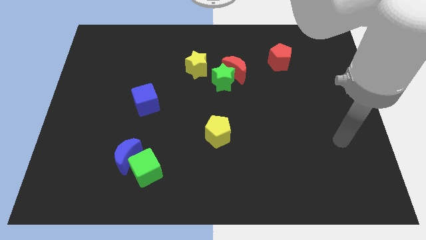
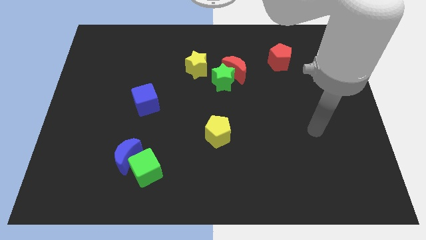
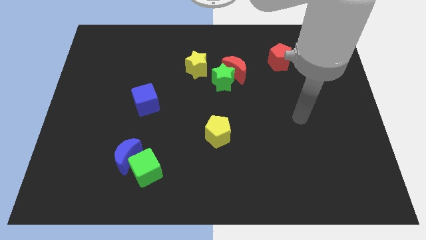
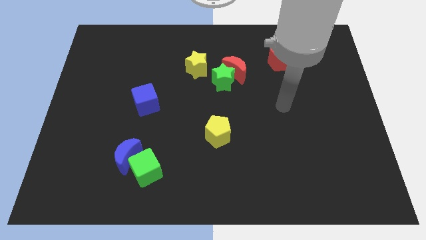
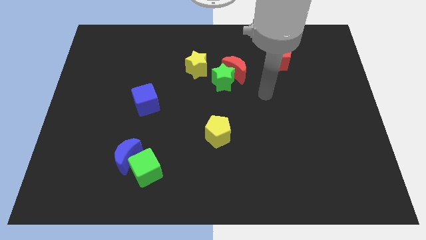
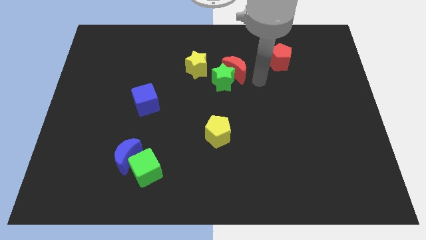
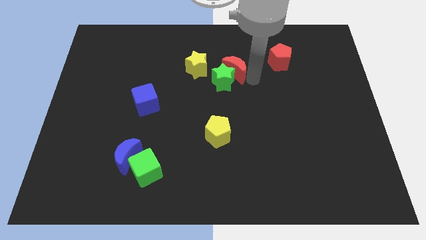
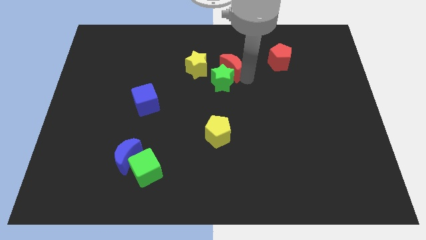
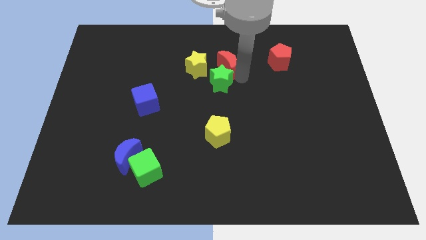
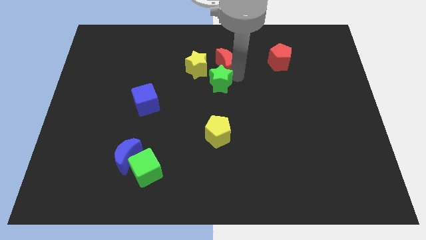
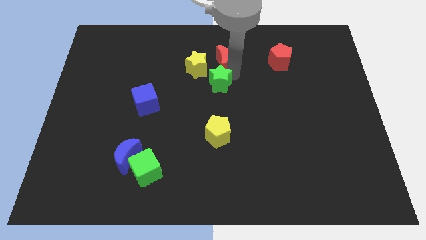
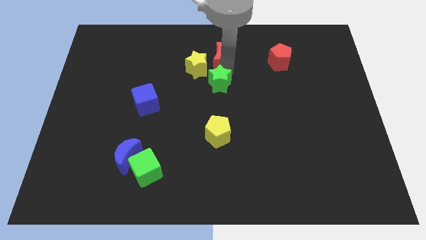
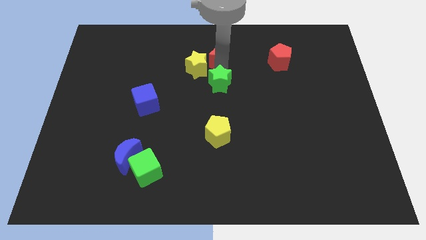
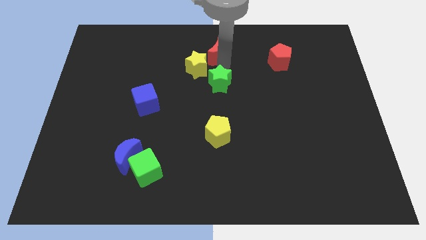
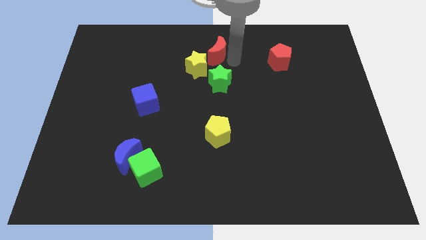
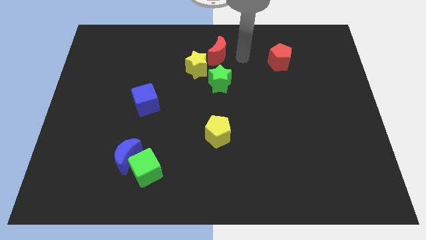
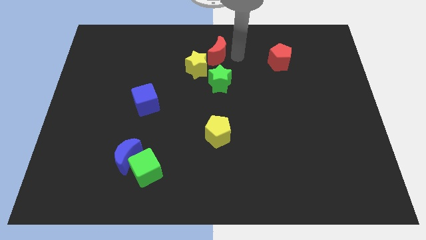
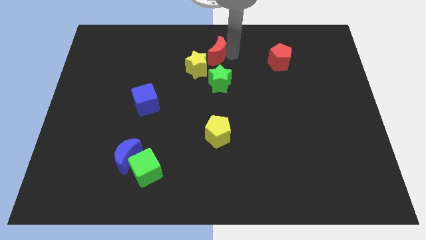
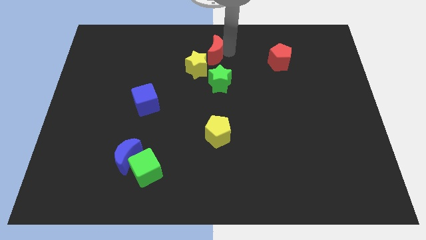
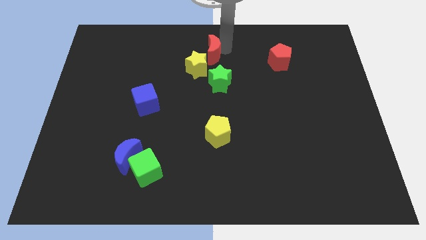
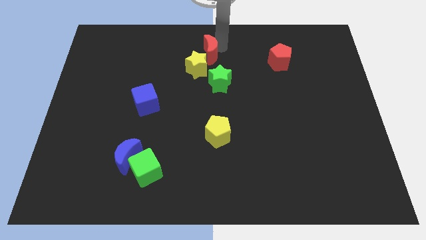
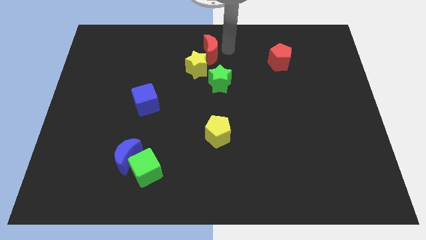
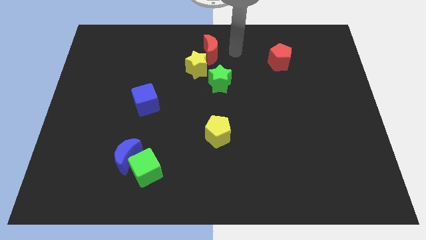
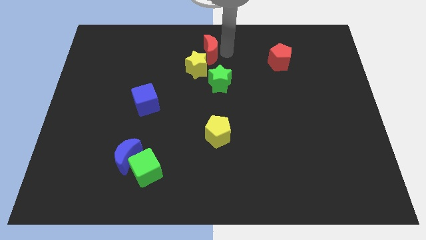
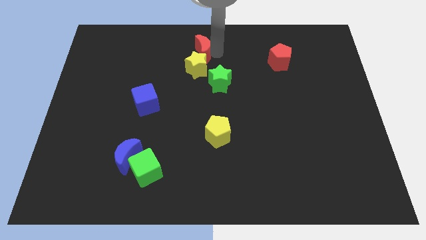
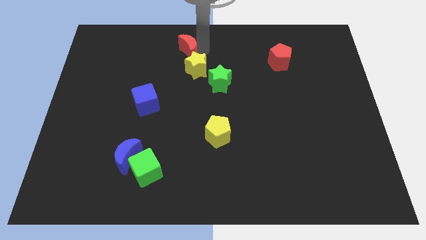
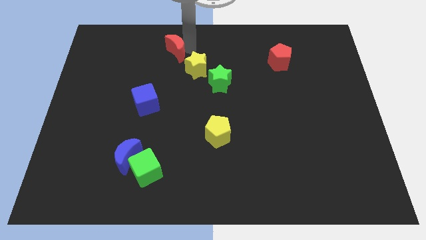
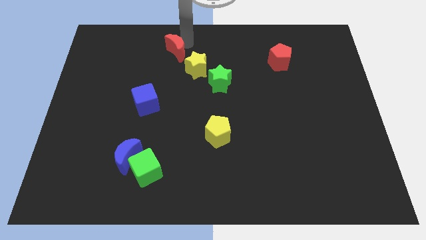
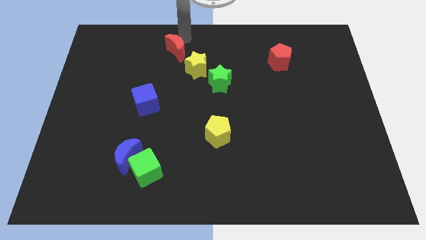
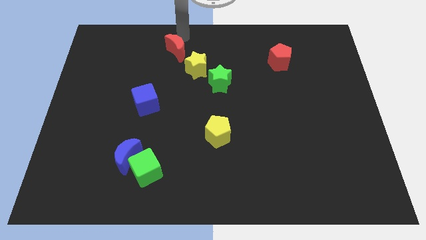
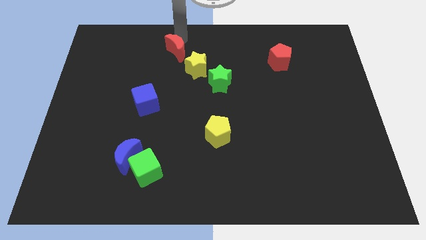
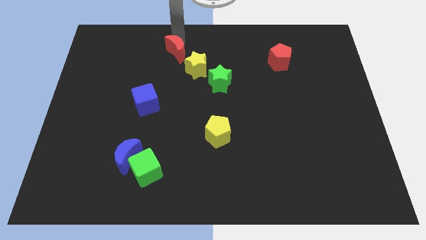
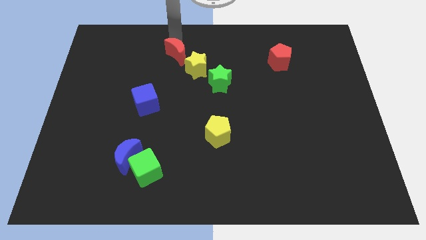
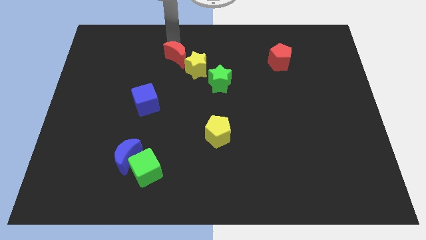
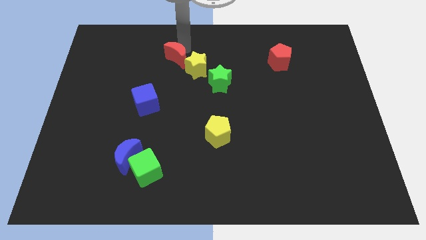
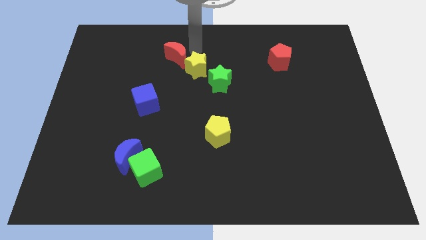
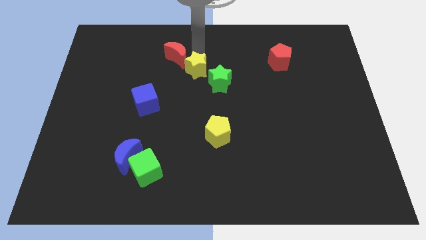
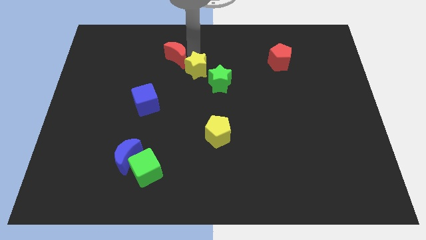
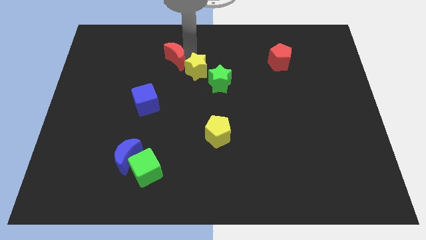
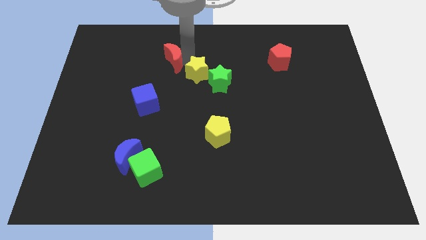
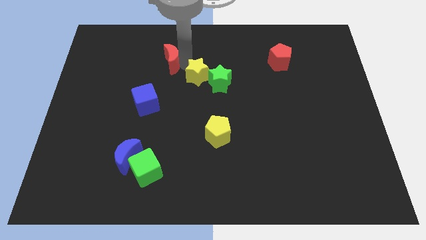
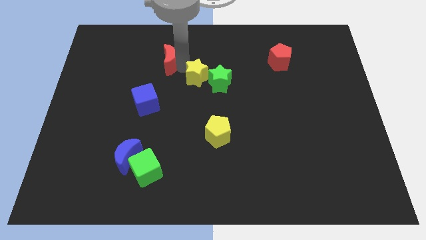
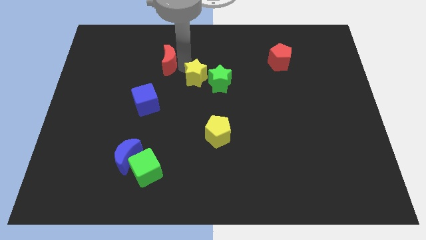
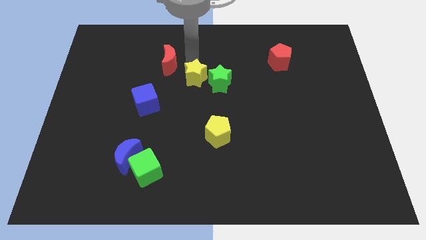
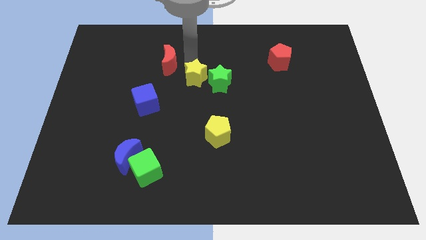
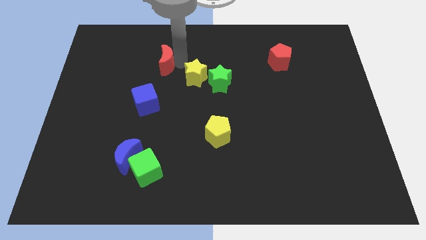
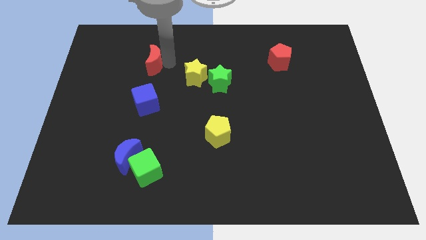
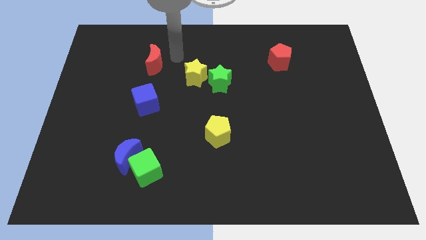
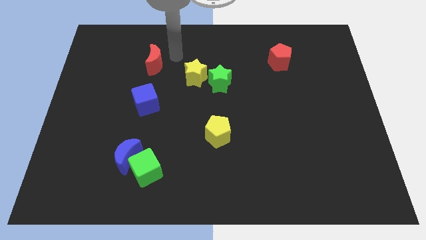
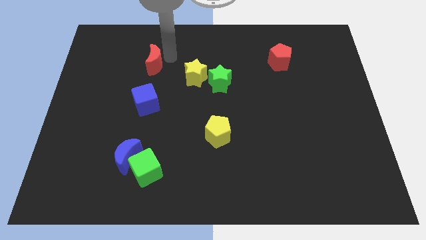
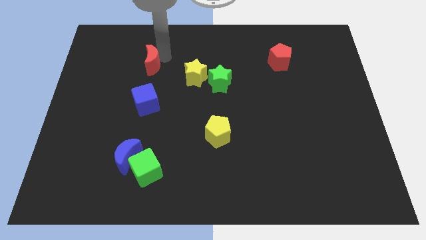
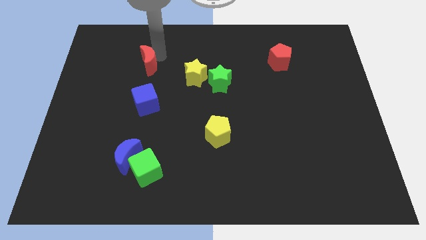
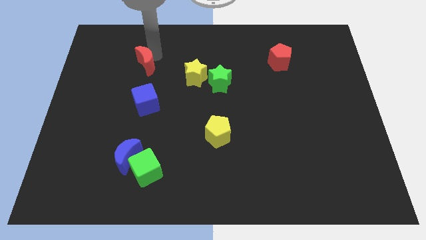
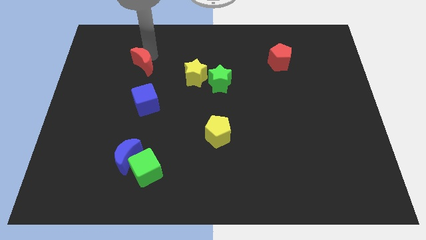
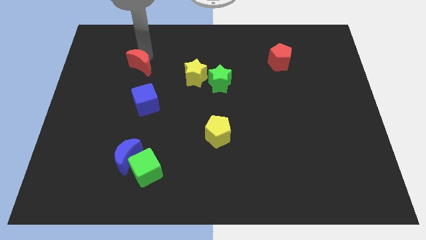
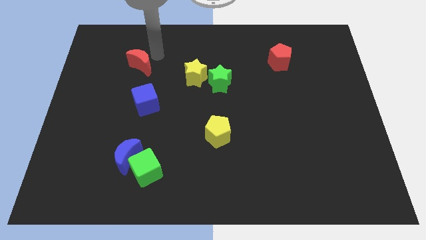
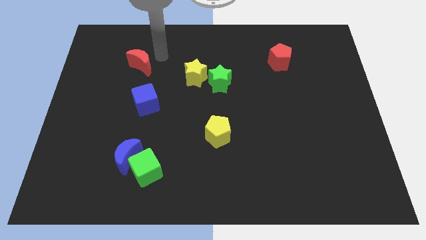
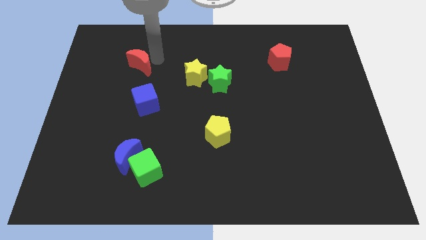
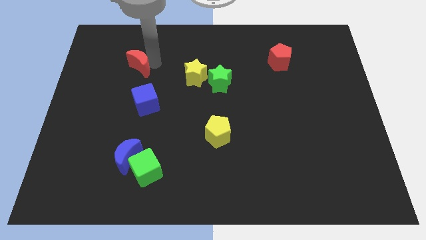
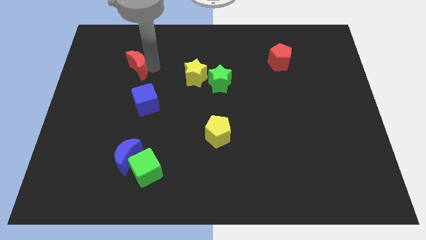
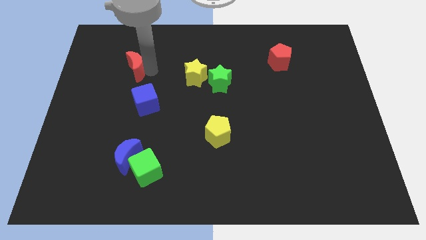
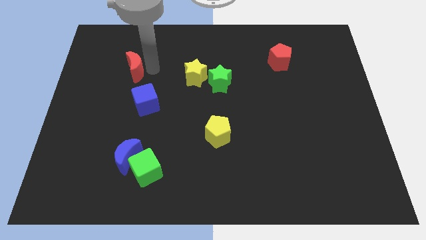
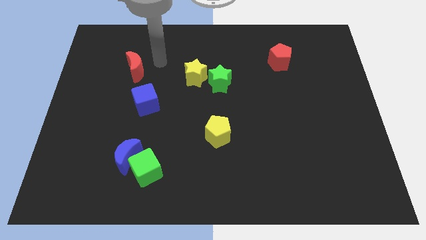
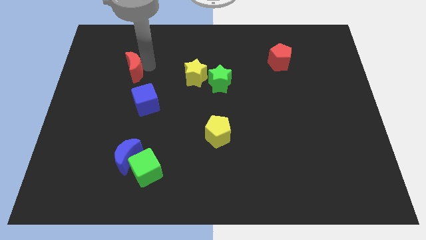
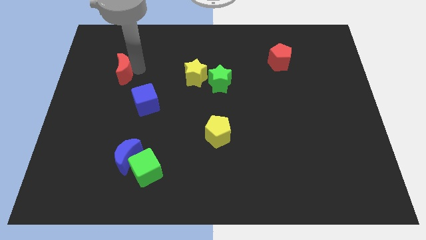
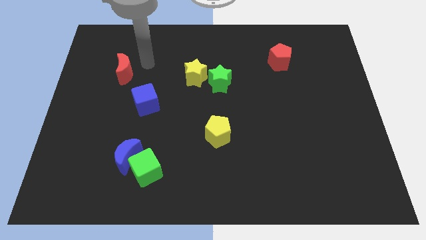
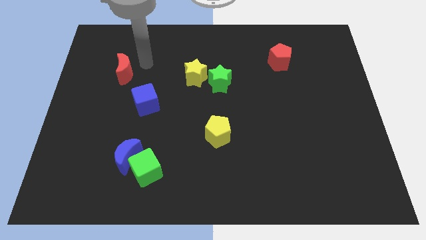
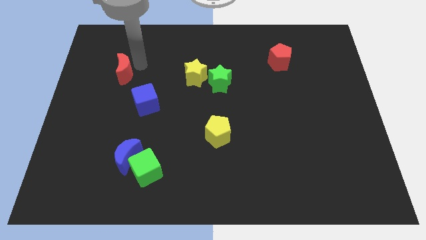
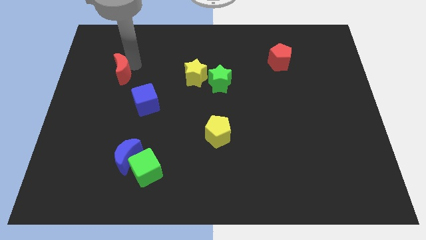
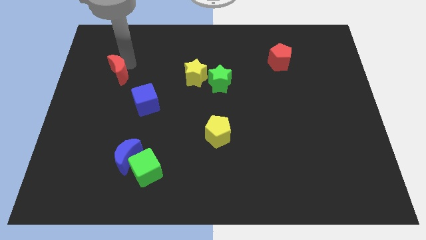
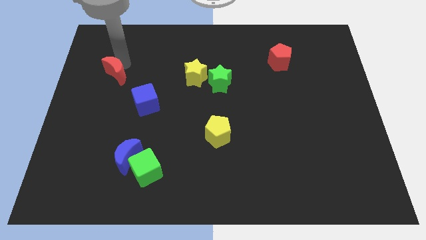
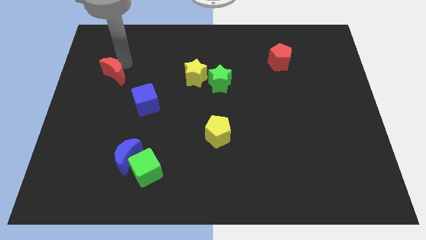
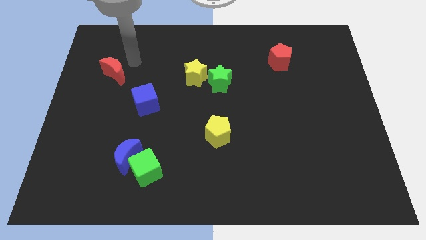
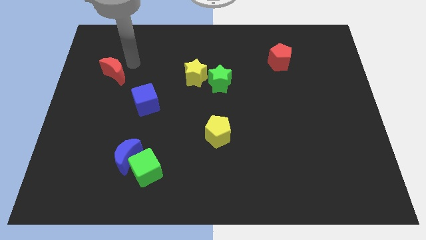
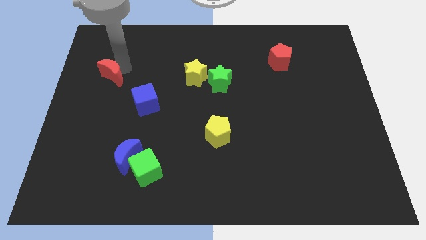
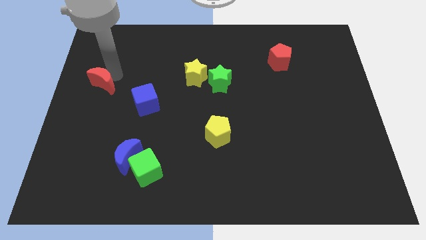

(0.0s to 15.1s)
put the red moon to the left side

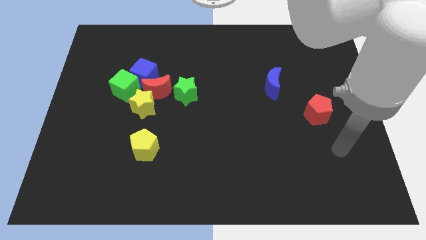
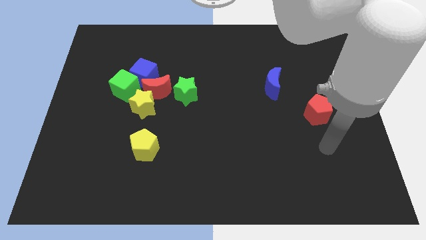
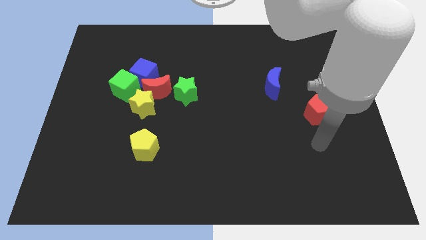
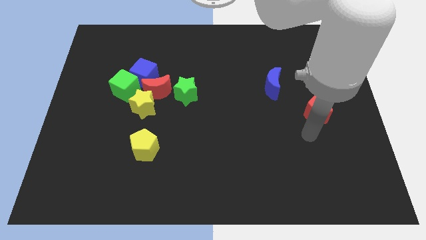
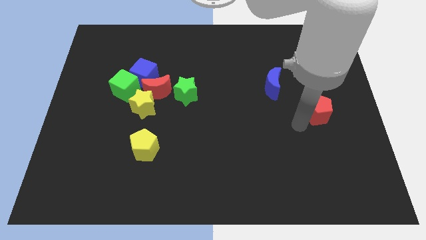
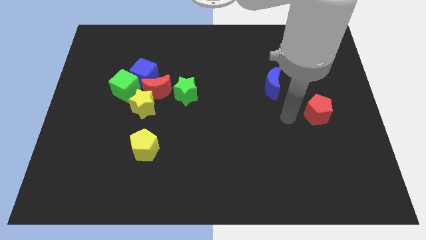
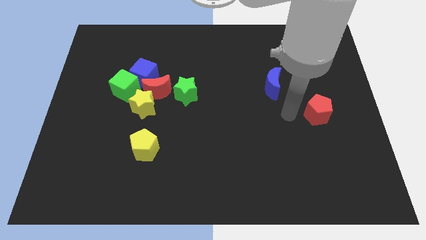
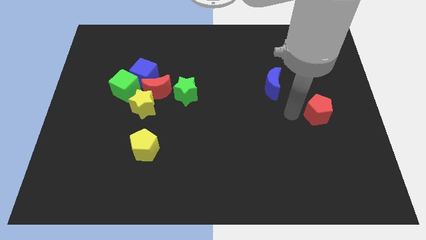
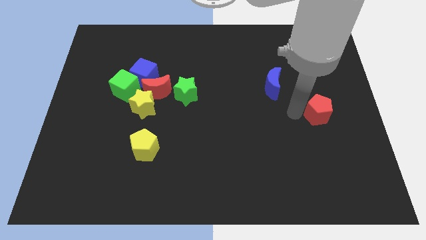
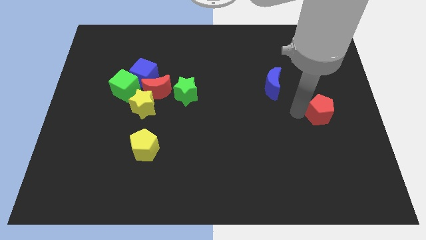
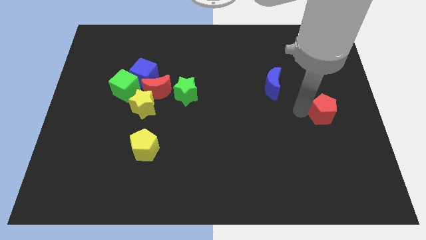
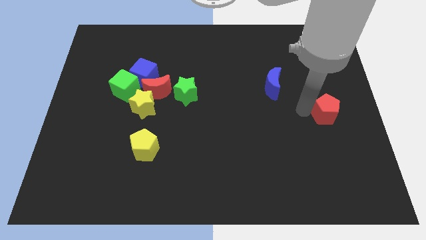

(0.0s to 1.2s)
slide the red pentagon to the center right
